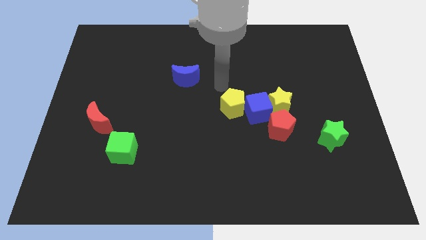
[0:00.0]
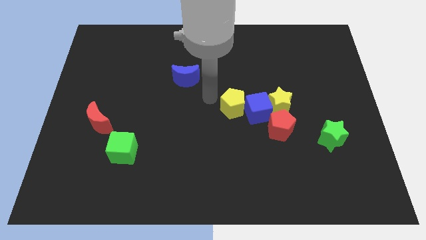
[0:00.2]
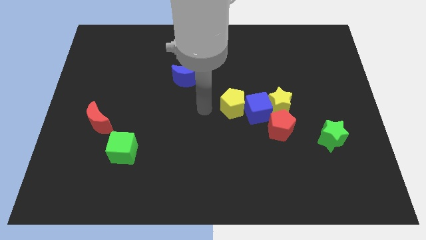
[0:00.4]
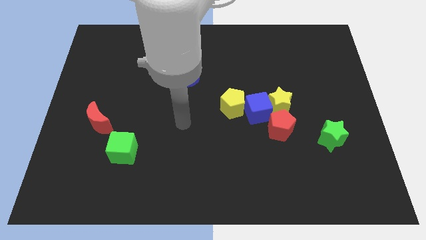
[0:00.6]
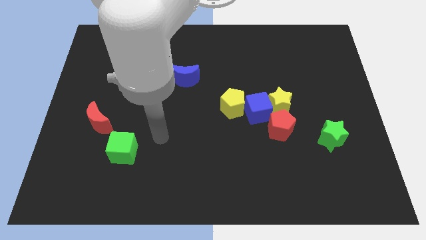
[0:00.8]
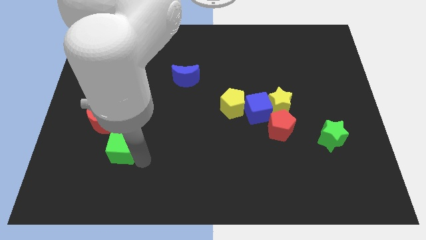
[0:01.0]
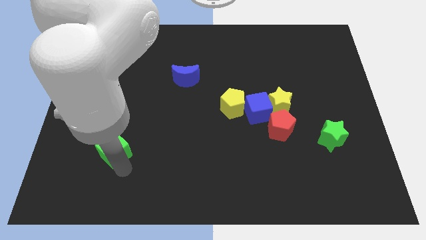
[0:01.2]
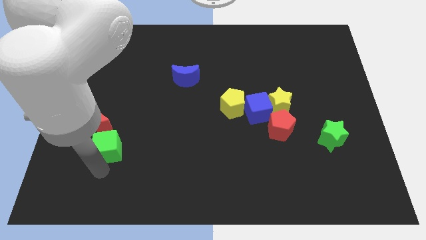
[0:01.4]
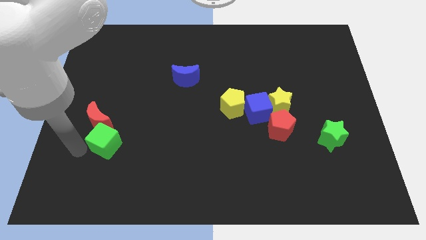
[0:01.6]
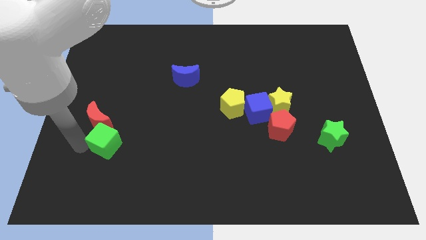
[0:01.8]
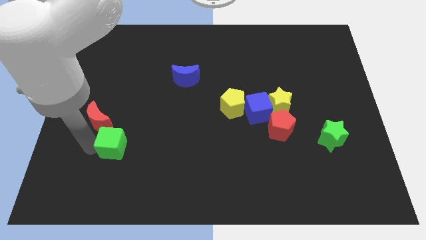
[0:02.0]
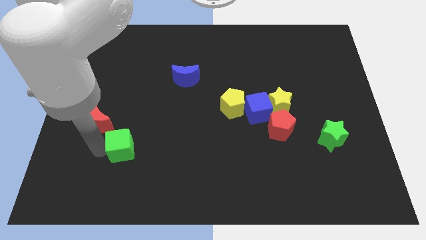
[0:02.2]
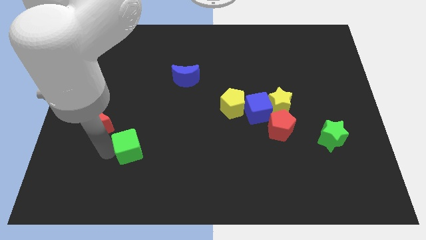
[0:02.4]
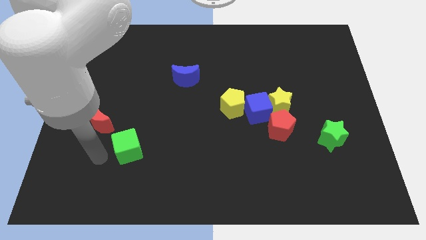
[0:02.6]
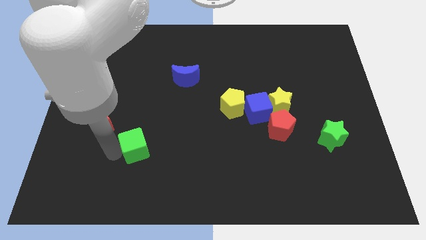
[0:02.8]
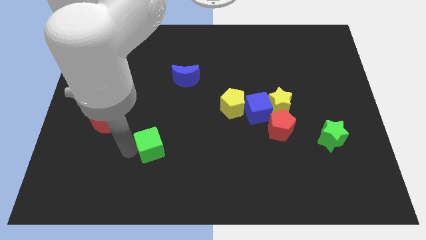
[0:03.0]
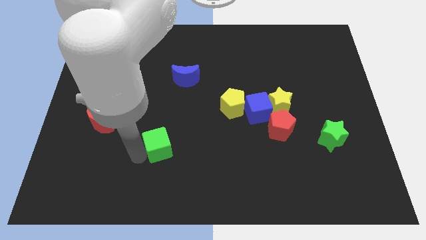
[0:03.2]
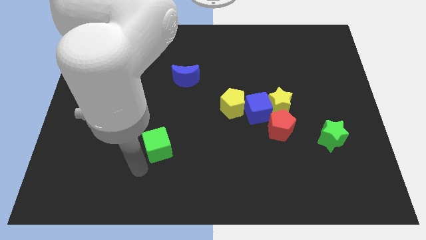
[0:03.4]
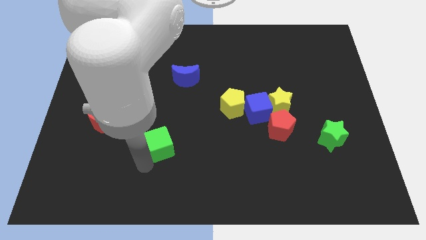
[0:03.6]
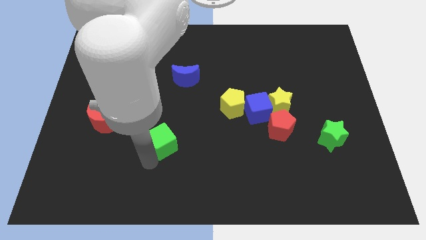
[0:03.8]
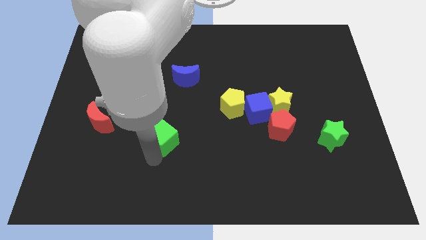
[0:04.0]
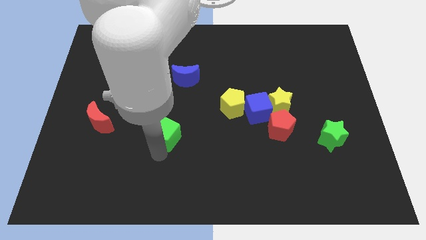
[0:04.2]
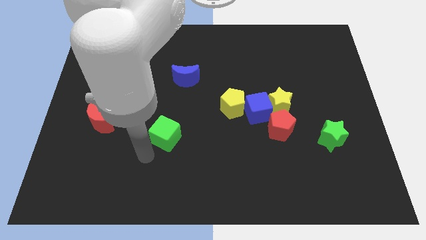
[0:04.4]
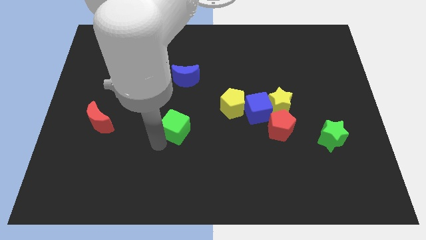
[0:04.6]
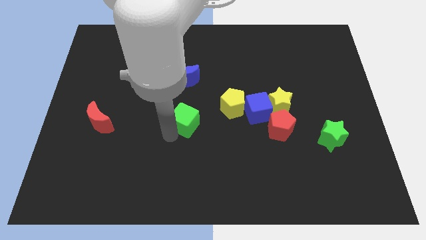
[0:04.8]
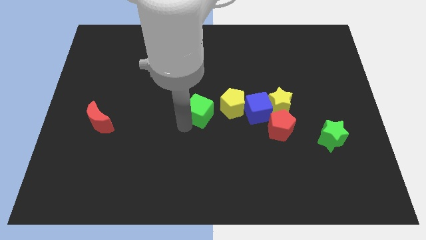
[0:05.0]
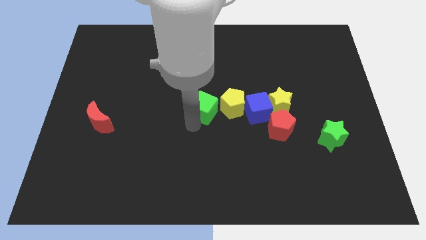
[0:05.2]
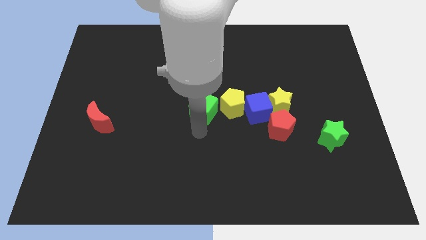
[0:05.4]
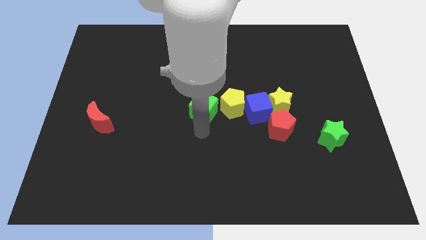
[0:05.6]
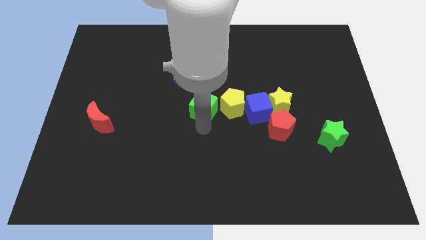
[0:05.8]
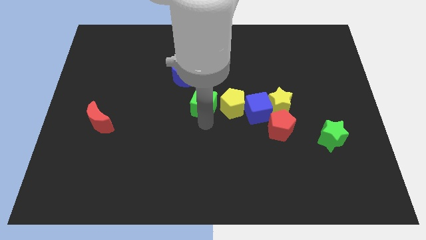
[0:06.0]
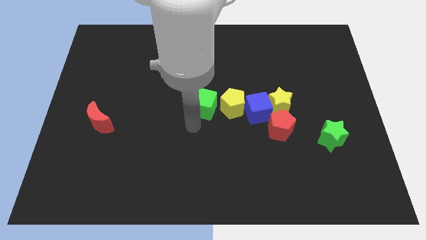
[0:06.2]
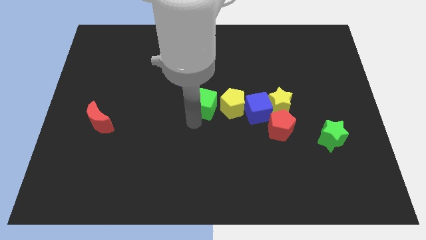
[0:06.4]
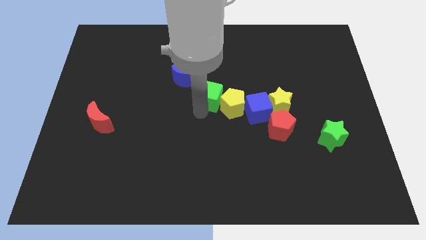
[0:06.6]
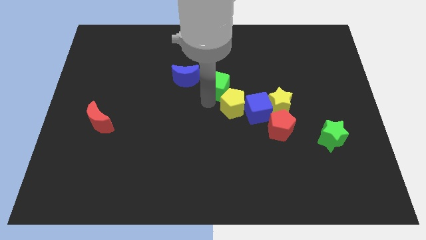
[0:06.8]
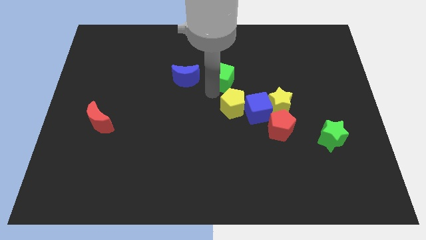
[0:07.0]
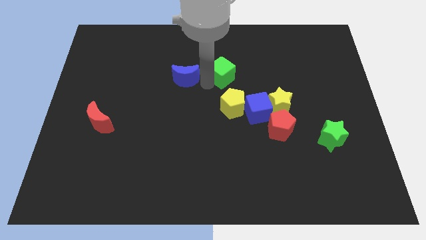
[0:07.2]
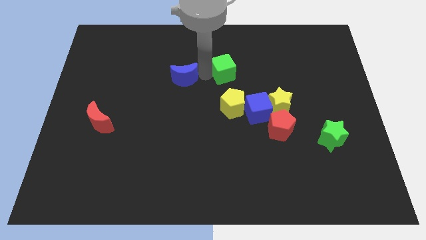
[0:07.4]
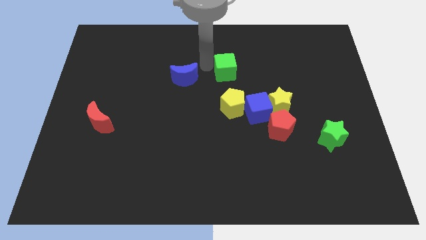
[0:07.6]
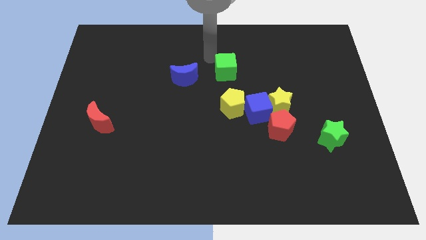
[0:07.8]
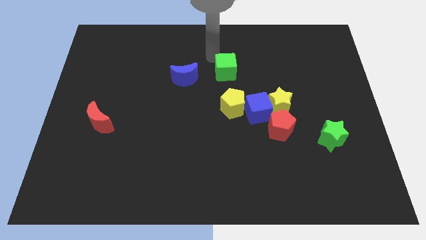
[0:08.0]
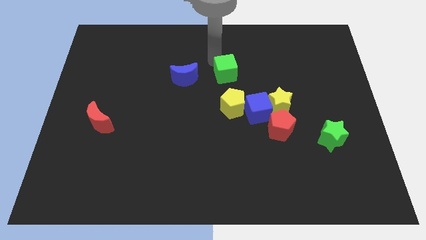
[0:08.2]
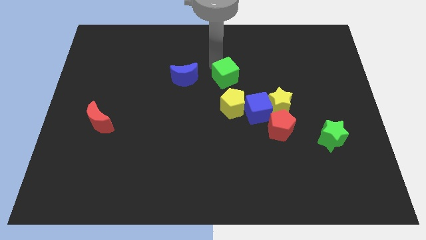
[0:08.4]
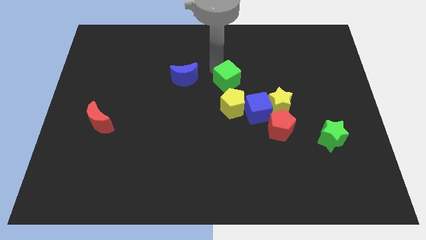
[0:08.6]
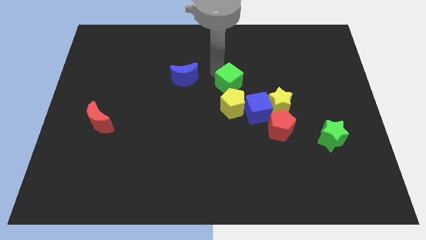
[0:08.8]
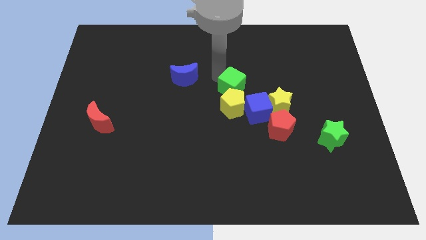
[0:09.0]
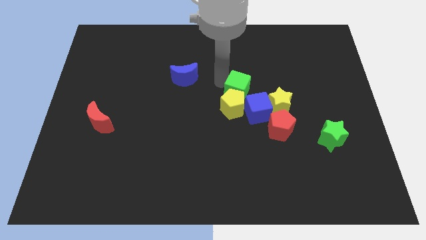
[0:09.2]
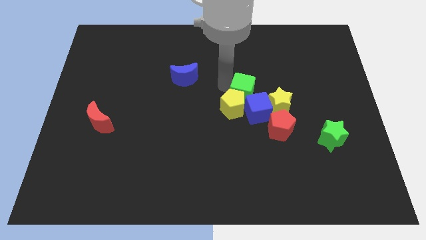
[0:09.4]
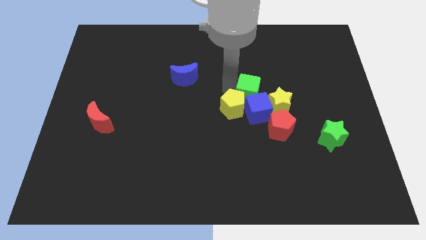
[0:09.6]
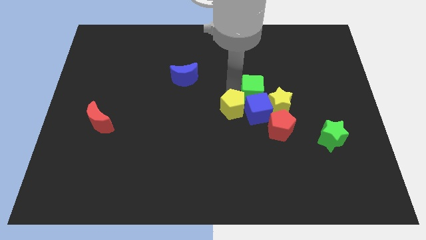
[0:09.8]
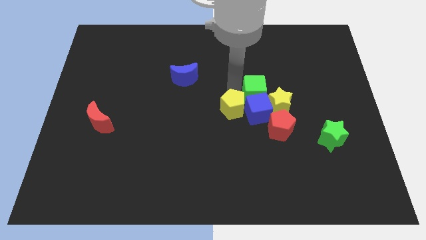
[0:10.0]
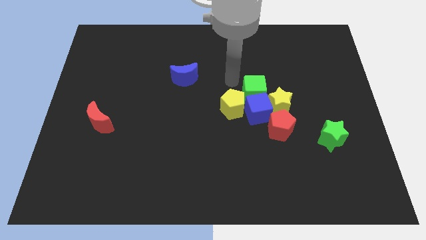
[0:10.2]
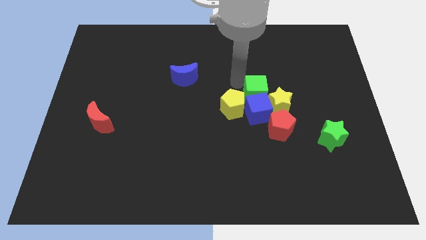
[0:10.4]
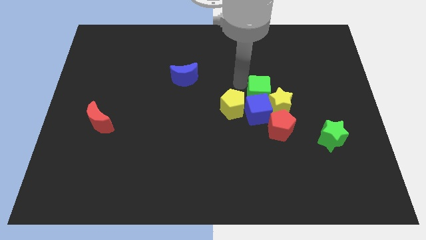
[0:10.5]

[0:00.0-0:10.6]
slide the green cube close to the yellow star

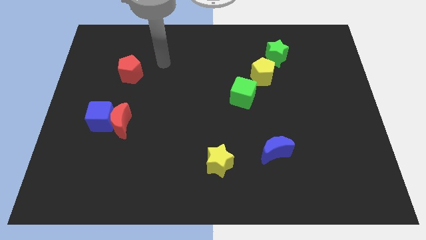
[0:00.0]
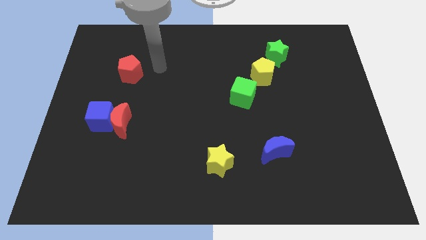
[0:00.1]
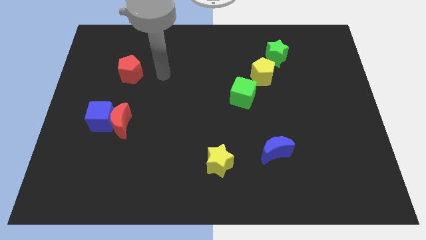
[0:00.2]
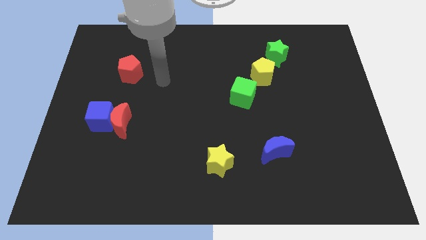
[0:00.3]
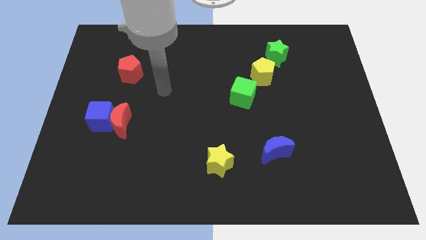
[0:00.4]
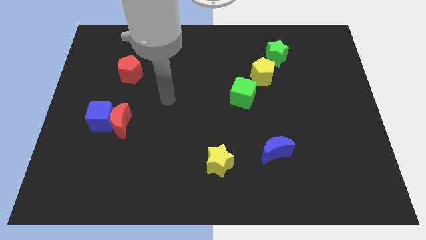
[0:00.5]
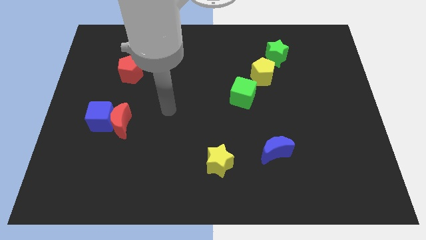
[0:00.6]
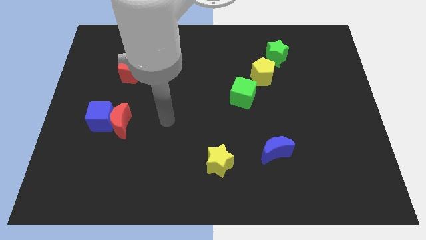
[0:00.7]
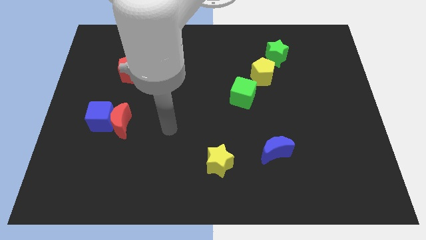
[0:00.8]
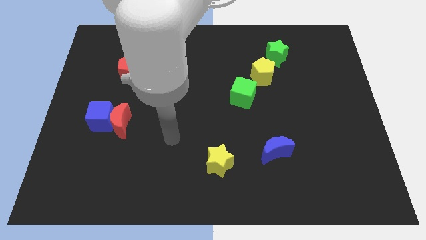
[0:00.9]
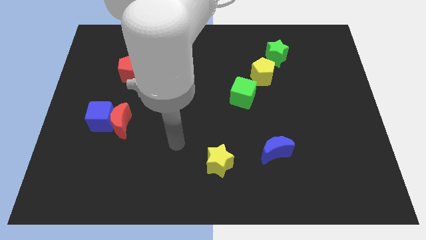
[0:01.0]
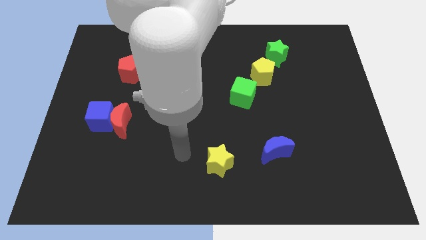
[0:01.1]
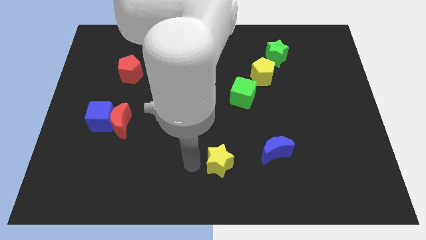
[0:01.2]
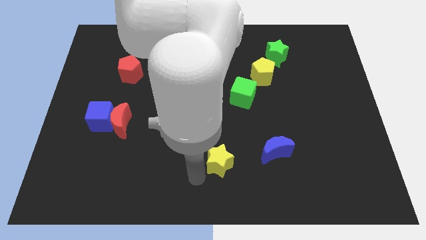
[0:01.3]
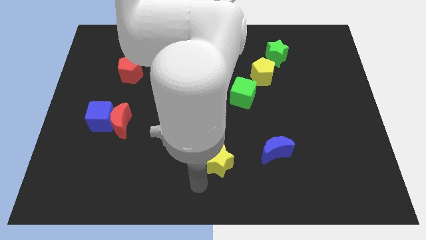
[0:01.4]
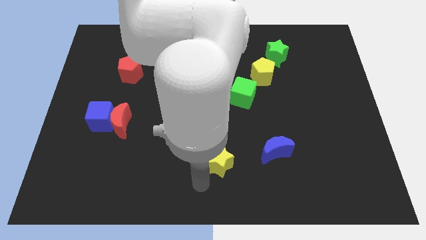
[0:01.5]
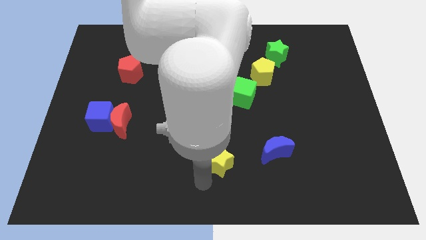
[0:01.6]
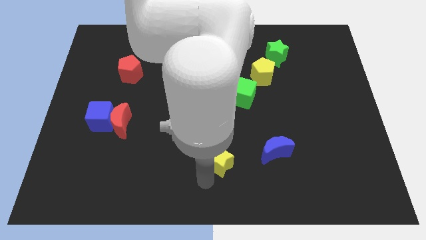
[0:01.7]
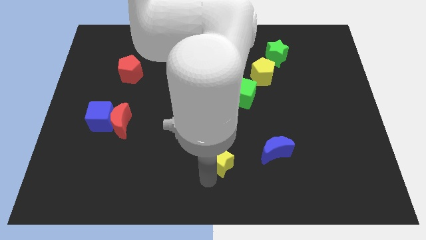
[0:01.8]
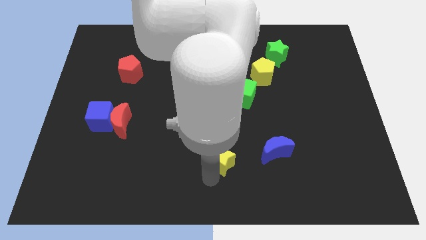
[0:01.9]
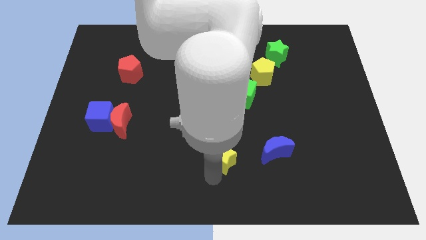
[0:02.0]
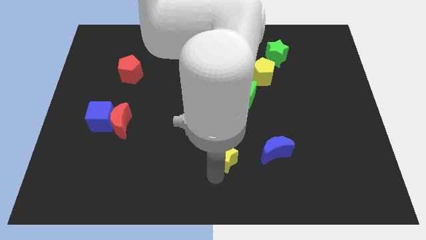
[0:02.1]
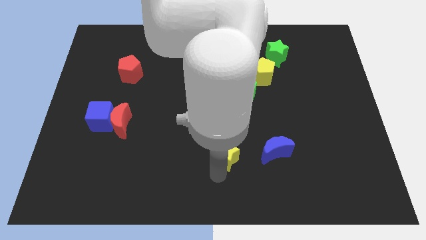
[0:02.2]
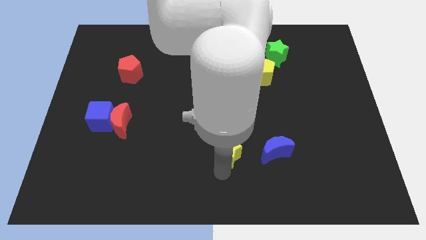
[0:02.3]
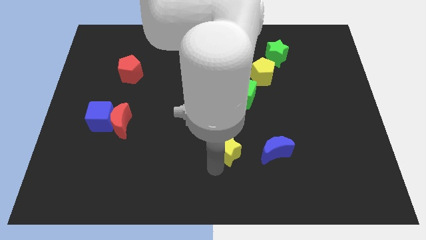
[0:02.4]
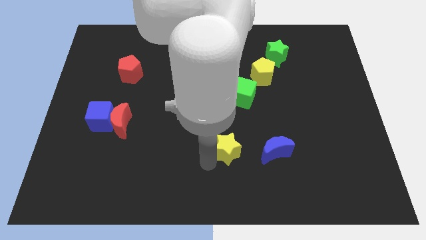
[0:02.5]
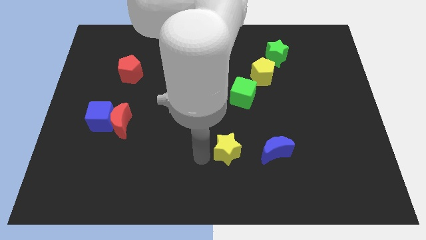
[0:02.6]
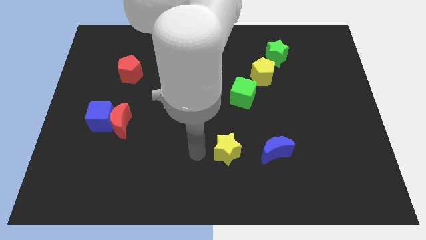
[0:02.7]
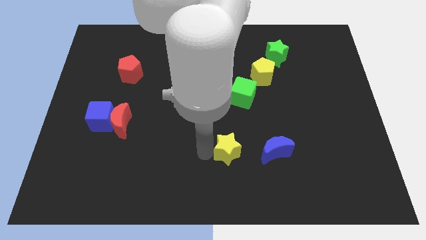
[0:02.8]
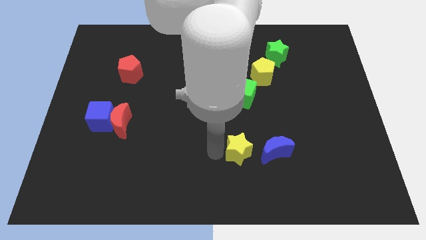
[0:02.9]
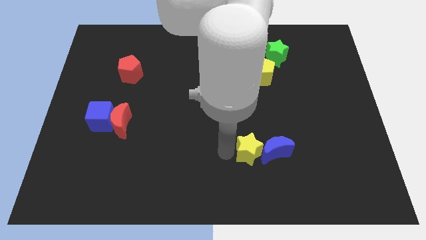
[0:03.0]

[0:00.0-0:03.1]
put the yellow star to the blue moon
